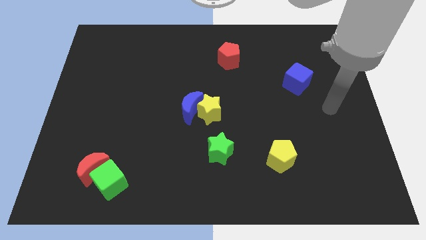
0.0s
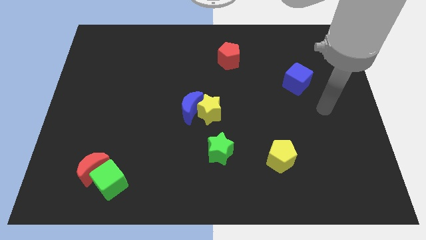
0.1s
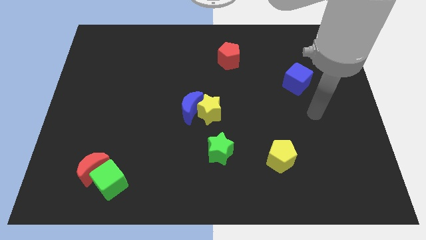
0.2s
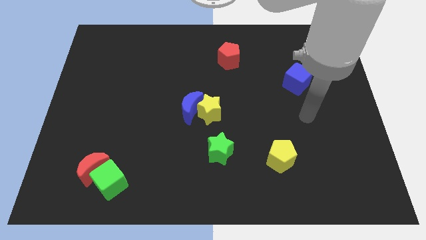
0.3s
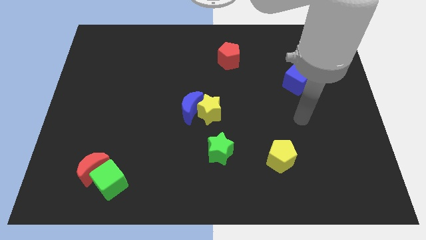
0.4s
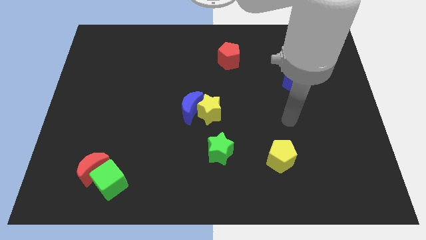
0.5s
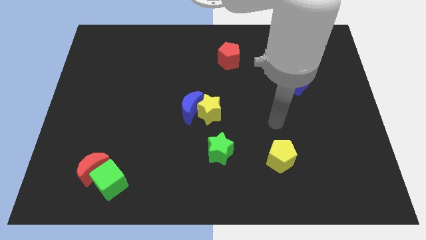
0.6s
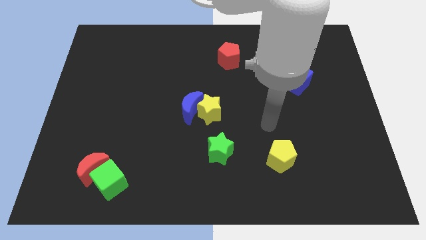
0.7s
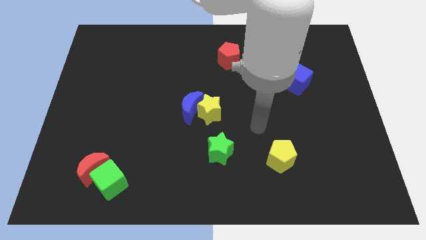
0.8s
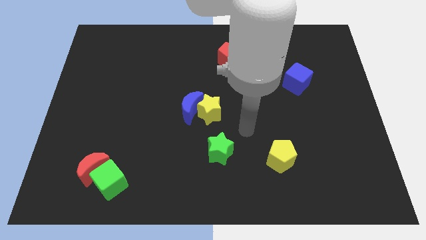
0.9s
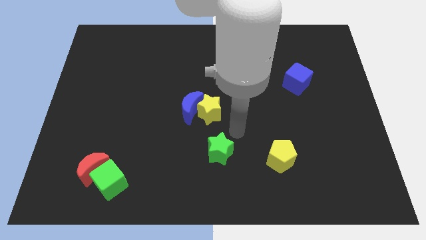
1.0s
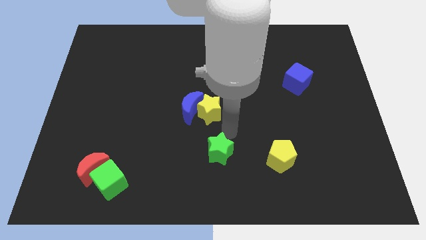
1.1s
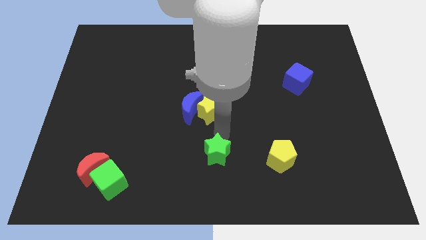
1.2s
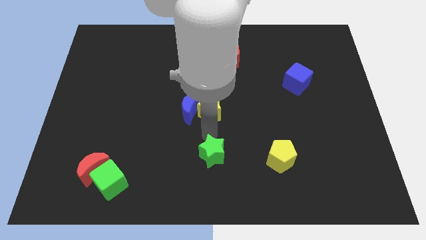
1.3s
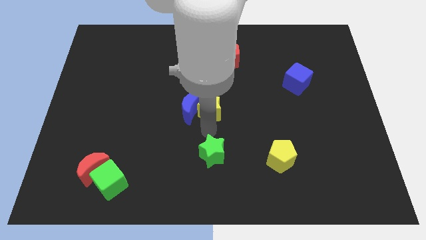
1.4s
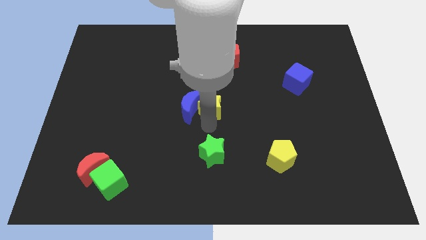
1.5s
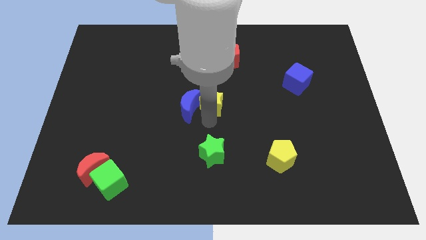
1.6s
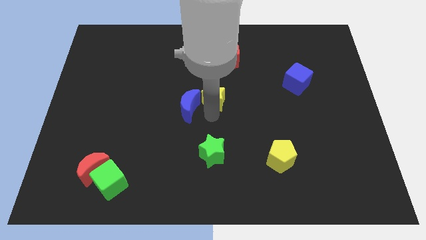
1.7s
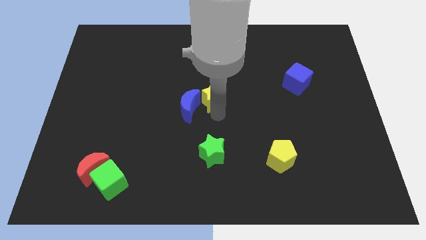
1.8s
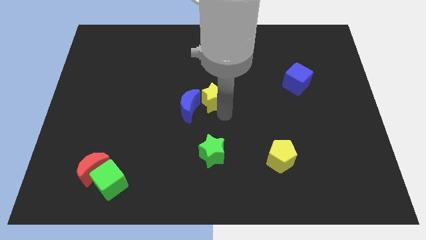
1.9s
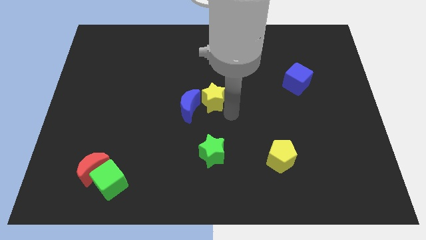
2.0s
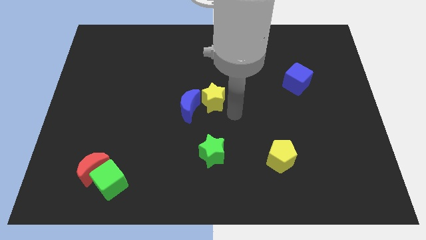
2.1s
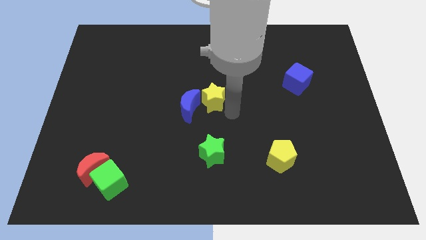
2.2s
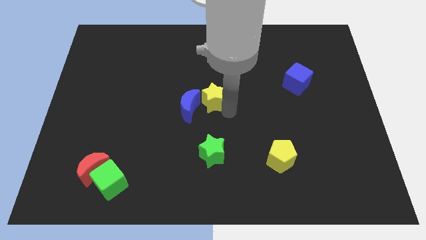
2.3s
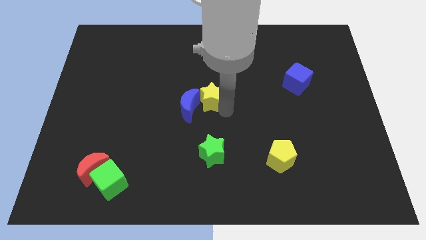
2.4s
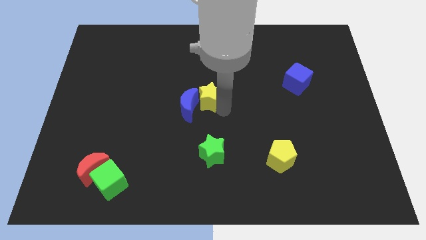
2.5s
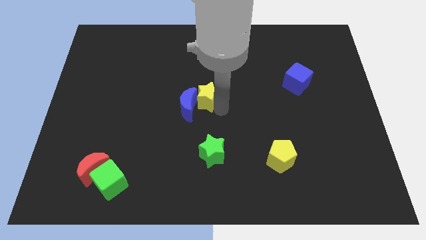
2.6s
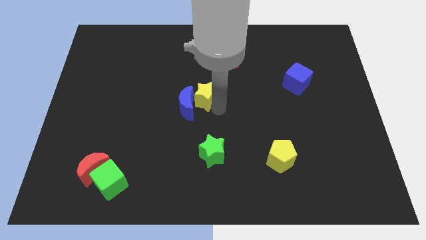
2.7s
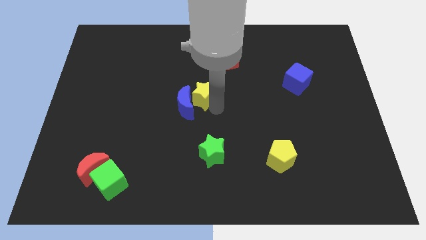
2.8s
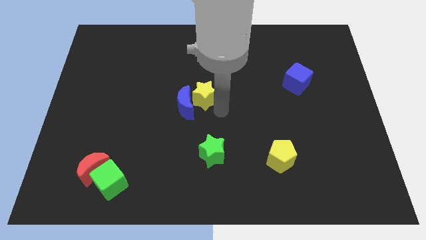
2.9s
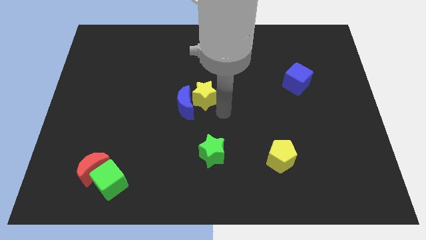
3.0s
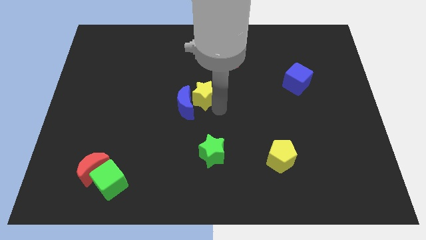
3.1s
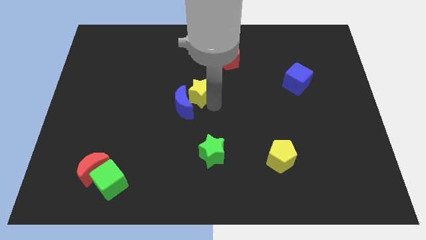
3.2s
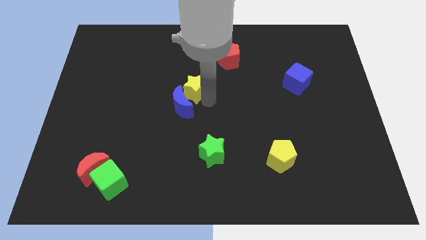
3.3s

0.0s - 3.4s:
push the yellow star somewhat up and to the left diagonally

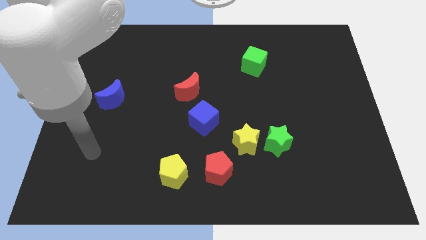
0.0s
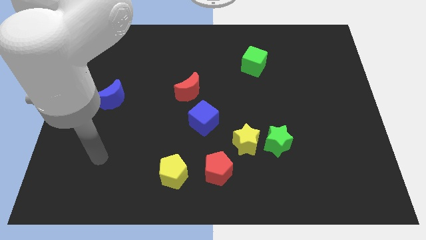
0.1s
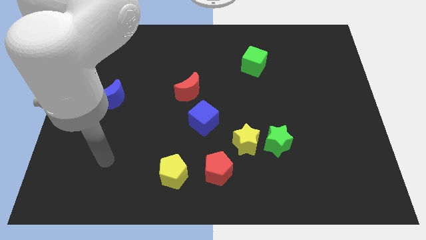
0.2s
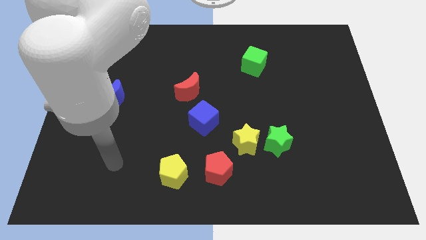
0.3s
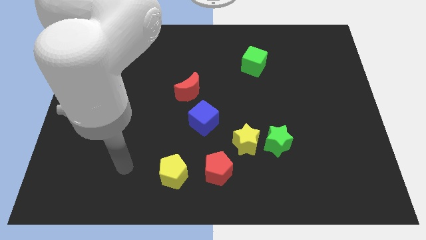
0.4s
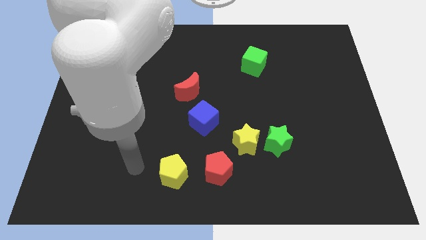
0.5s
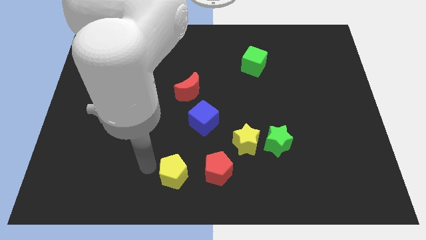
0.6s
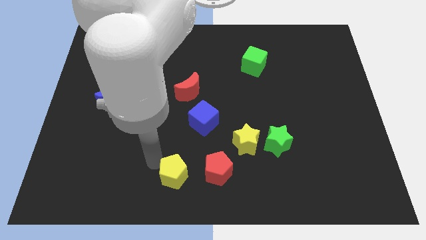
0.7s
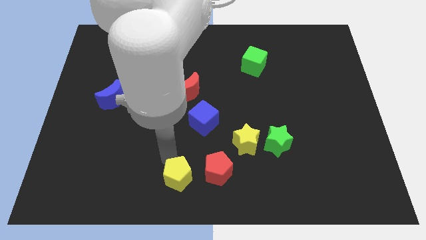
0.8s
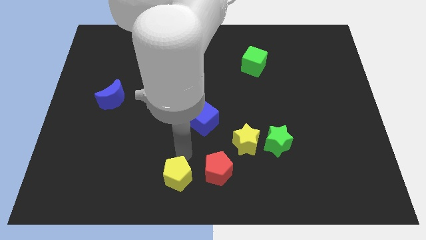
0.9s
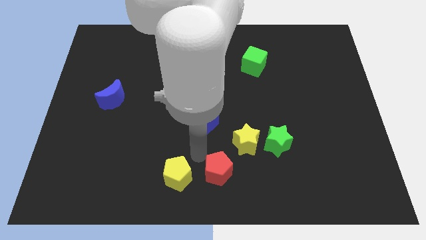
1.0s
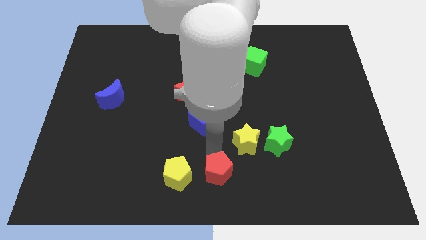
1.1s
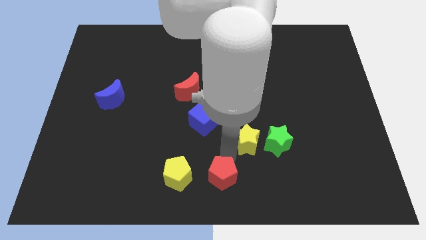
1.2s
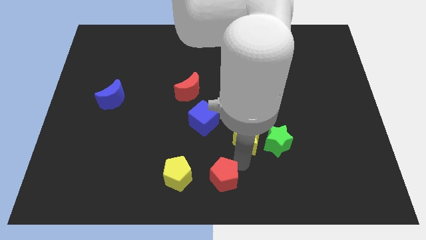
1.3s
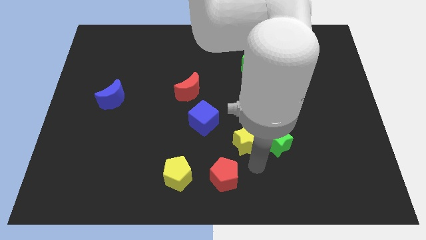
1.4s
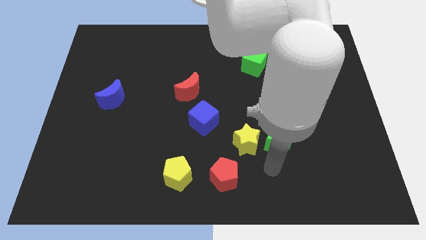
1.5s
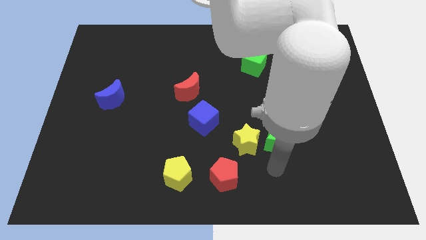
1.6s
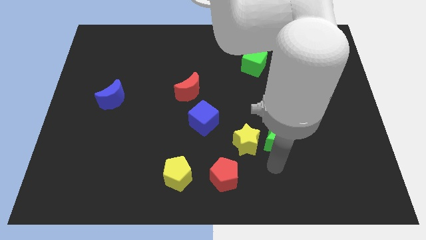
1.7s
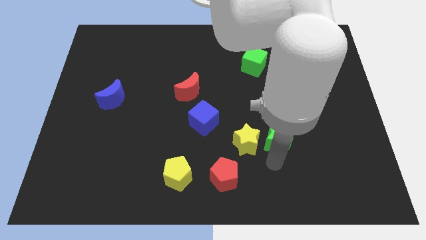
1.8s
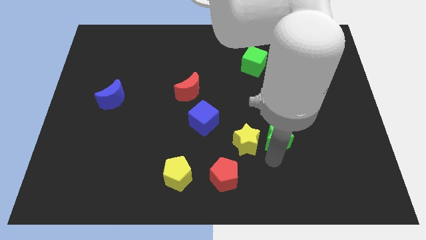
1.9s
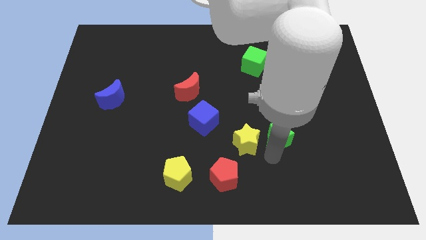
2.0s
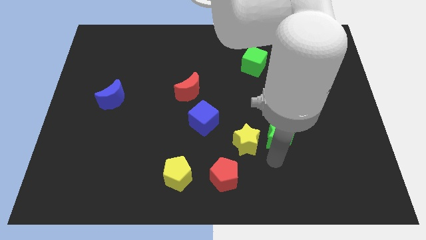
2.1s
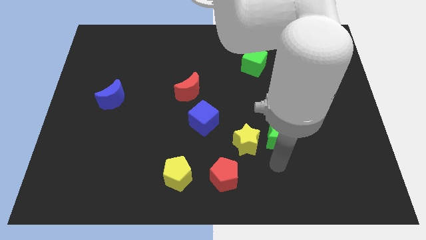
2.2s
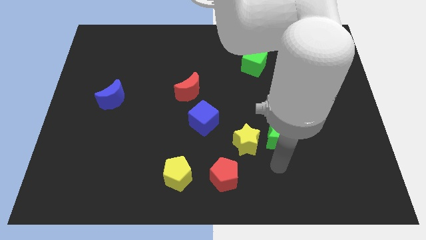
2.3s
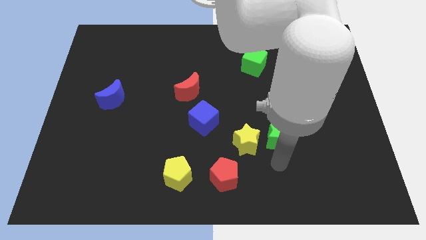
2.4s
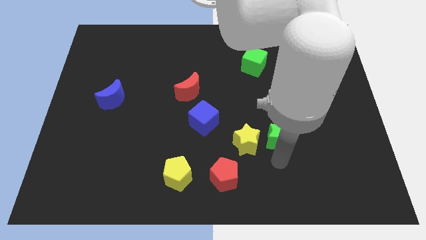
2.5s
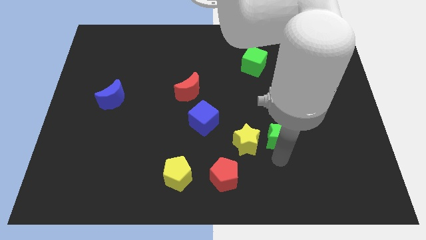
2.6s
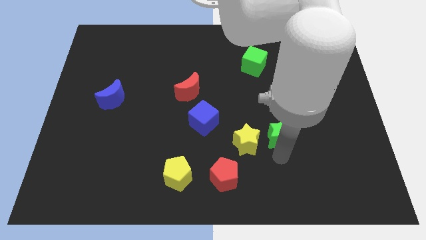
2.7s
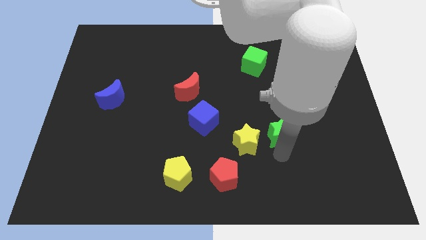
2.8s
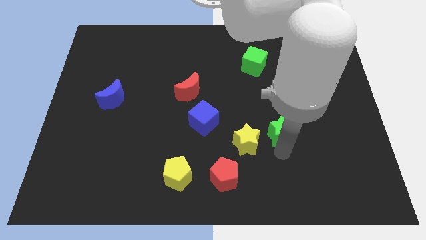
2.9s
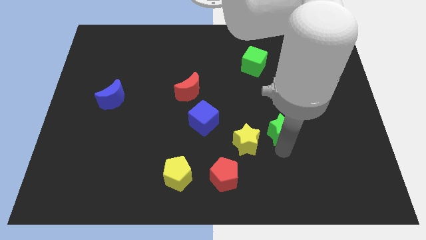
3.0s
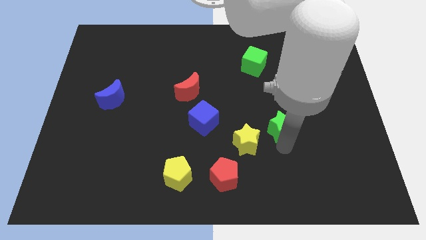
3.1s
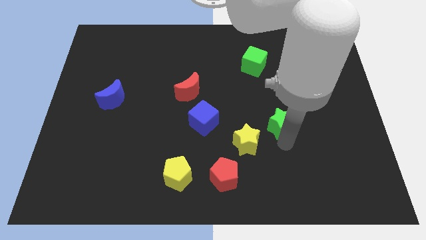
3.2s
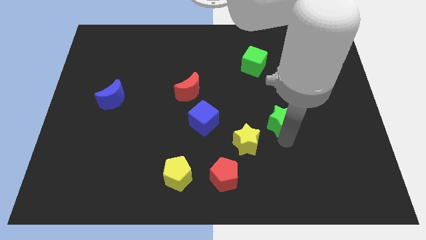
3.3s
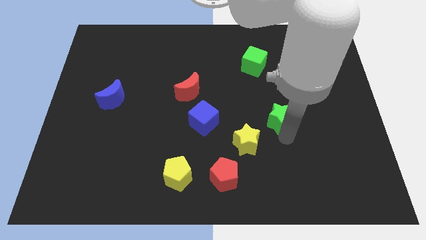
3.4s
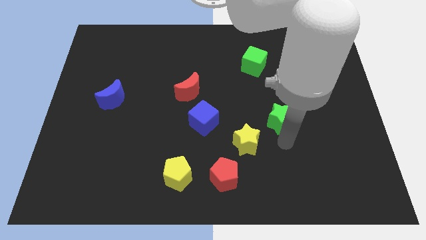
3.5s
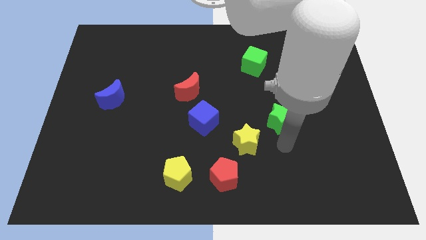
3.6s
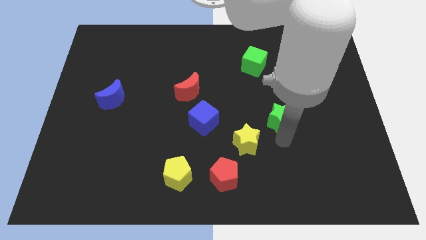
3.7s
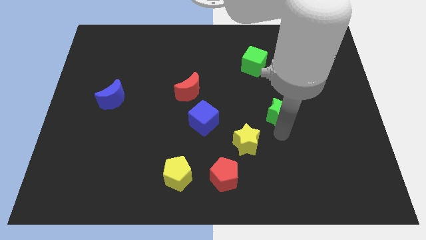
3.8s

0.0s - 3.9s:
slide the green star upwards somewhat

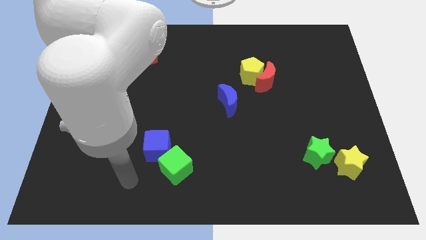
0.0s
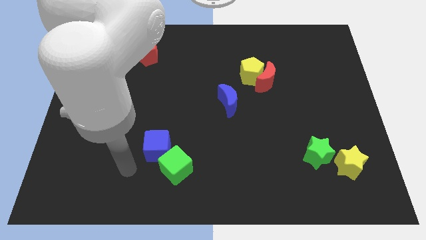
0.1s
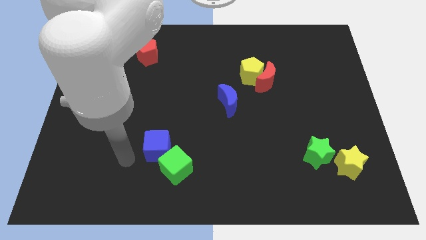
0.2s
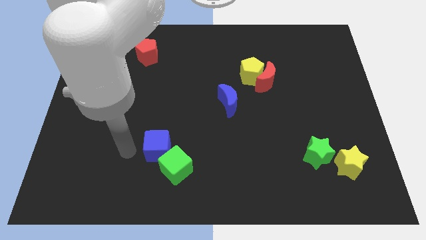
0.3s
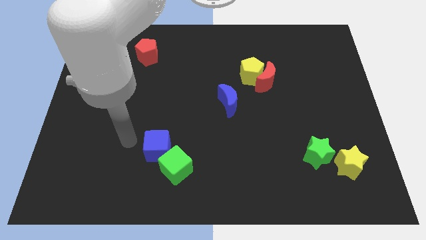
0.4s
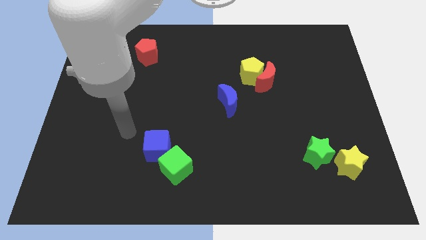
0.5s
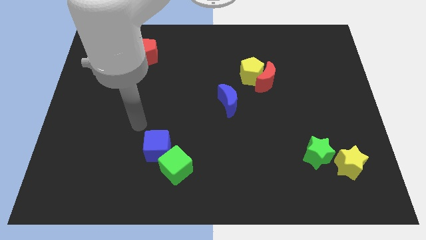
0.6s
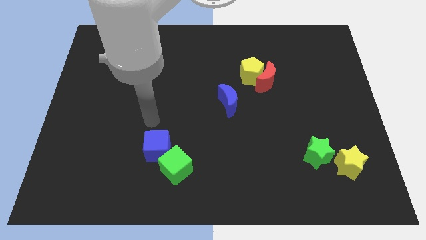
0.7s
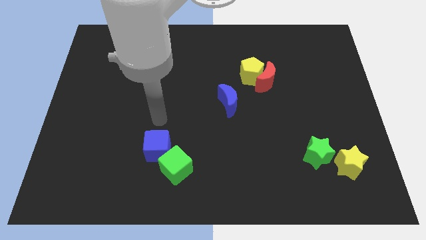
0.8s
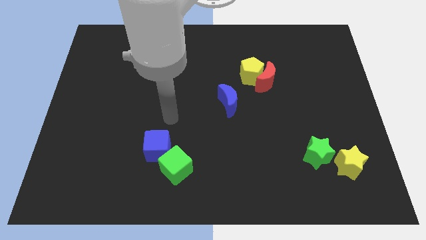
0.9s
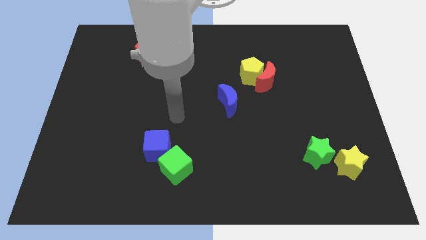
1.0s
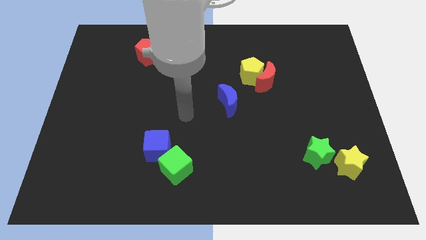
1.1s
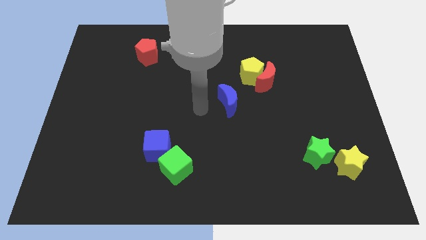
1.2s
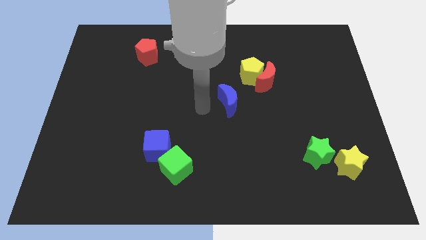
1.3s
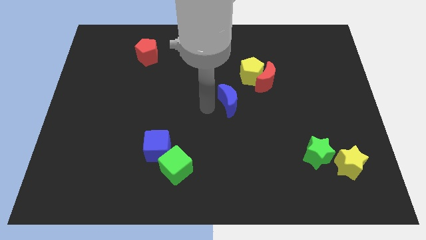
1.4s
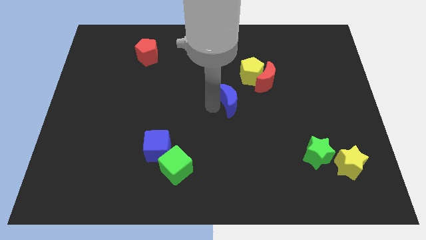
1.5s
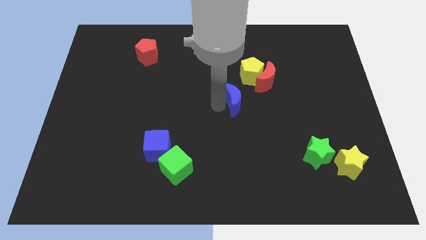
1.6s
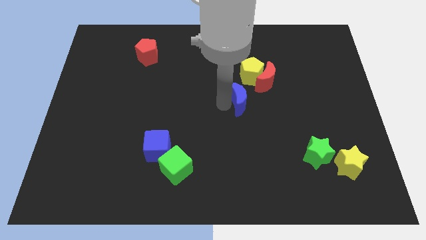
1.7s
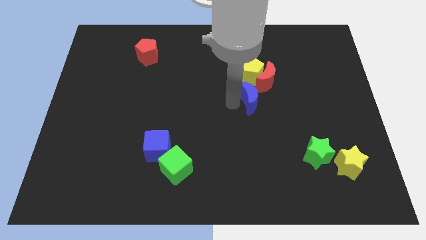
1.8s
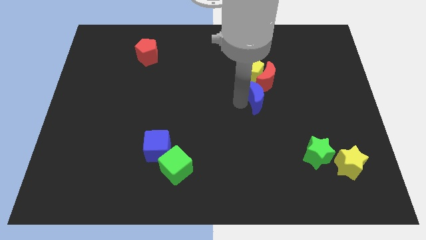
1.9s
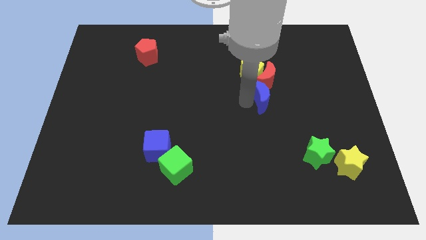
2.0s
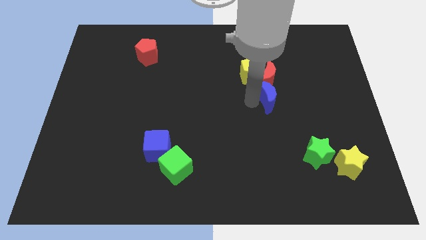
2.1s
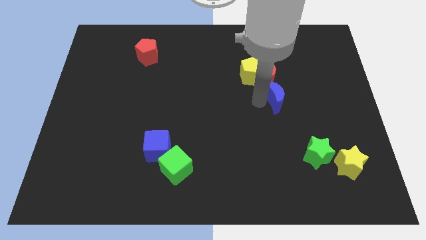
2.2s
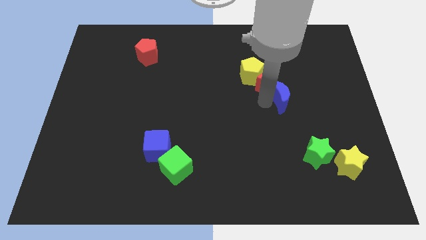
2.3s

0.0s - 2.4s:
push the blue moon a bit upwards and then to the right
